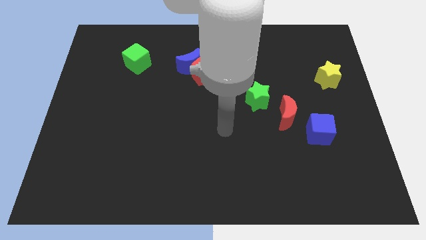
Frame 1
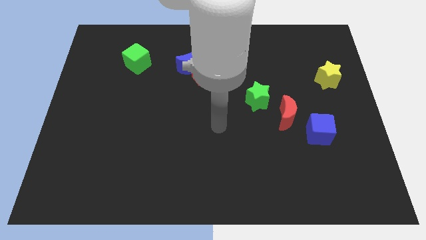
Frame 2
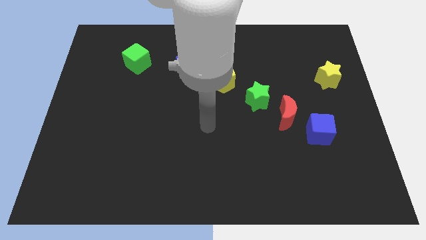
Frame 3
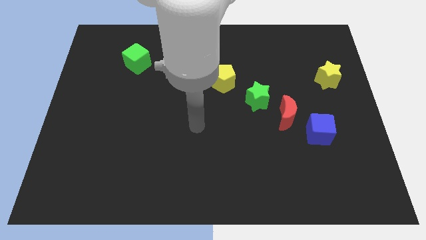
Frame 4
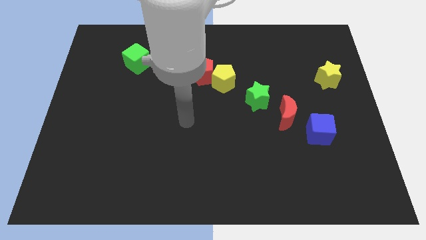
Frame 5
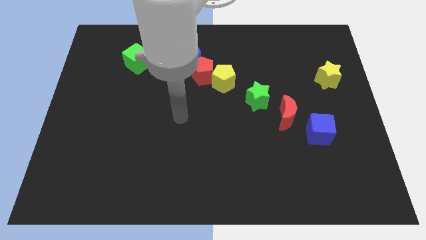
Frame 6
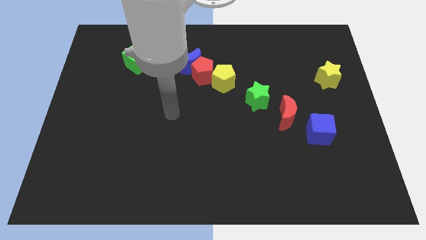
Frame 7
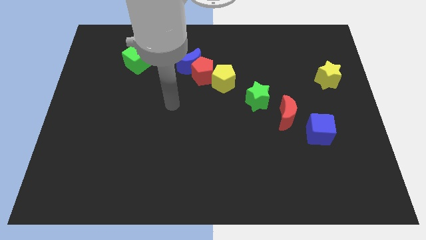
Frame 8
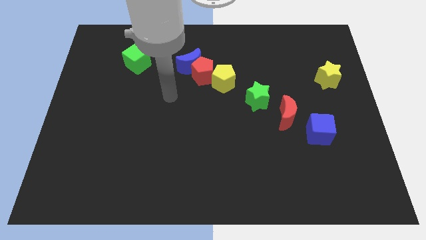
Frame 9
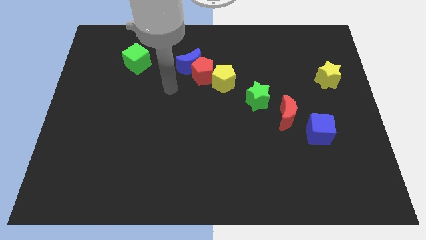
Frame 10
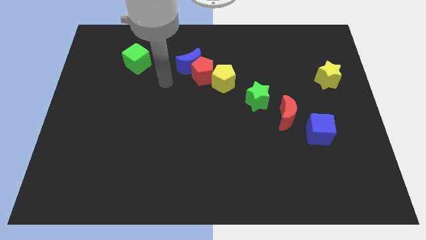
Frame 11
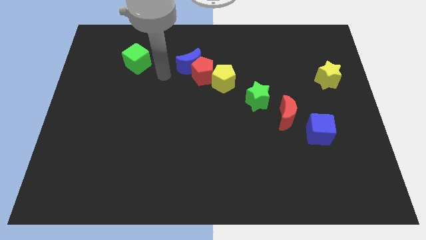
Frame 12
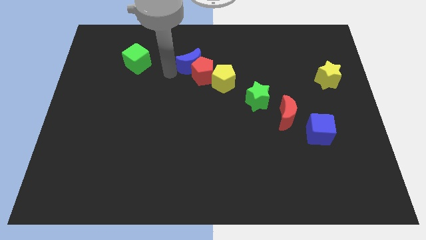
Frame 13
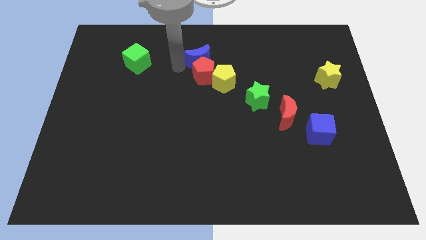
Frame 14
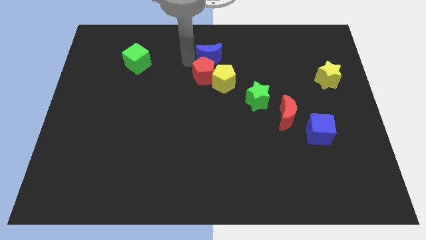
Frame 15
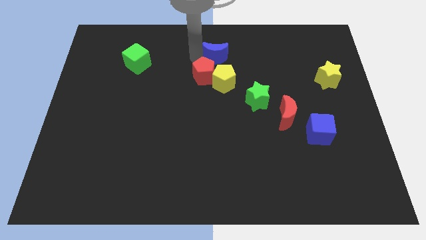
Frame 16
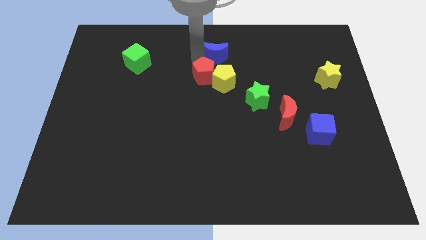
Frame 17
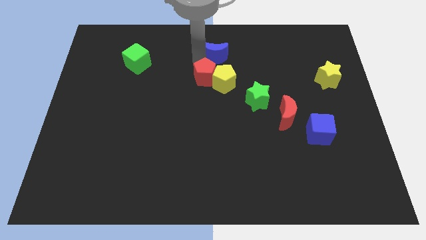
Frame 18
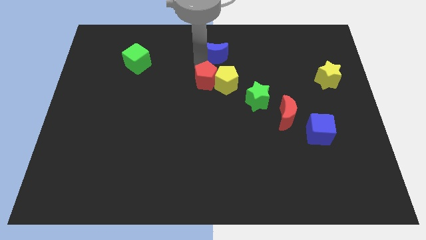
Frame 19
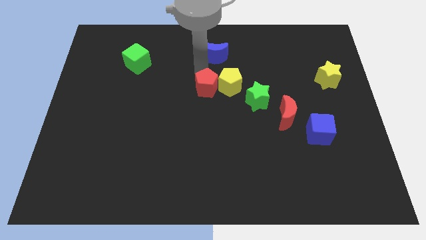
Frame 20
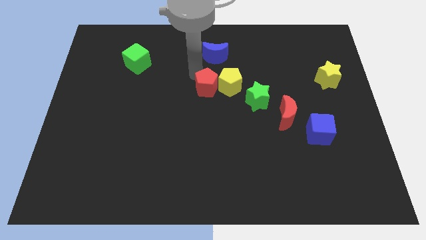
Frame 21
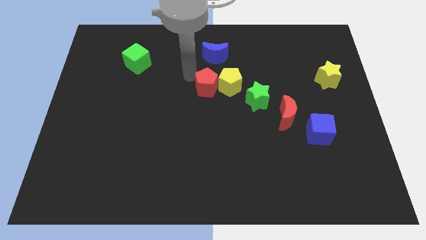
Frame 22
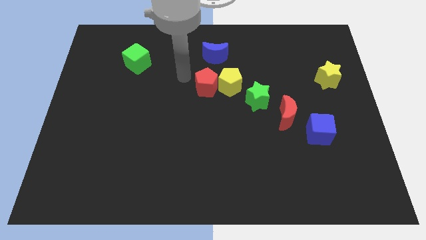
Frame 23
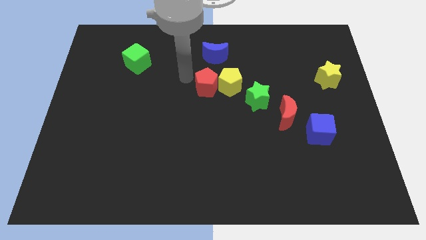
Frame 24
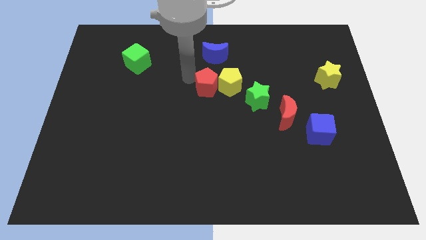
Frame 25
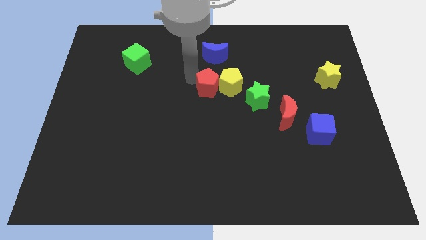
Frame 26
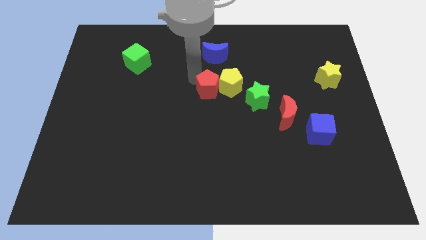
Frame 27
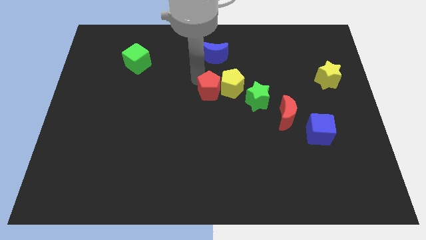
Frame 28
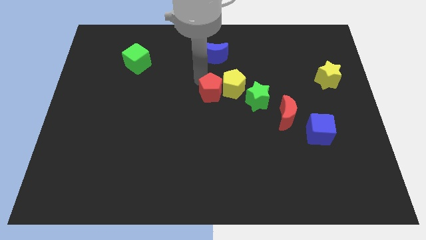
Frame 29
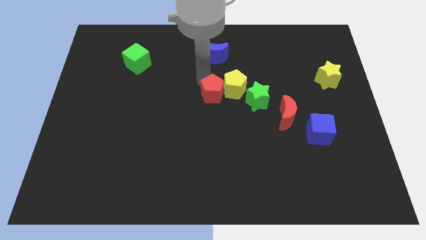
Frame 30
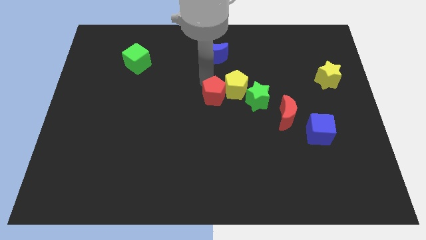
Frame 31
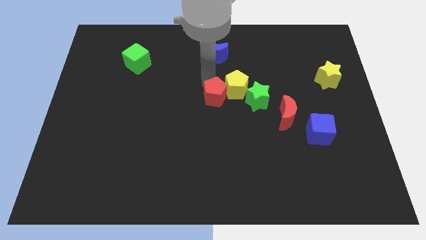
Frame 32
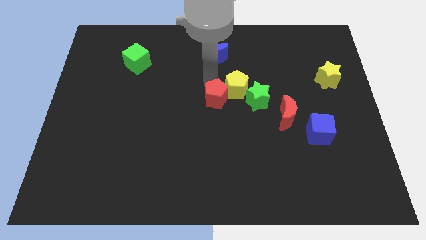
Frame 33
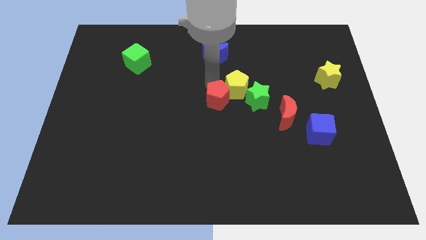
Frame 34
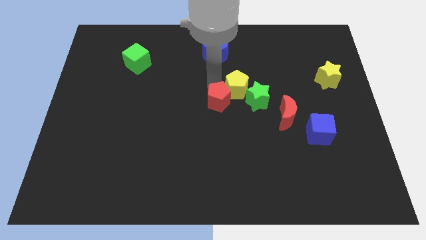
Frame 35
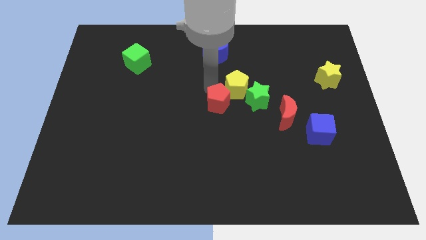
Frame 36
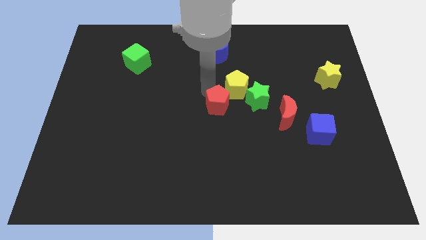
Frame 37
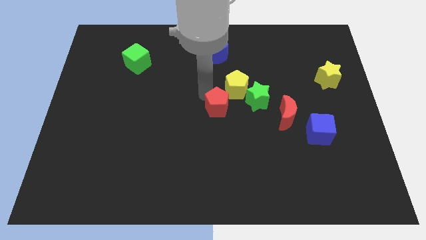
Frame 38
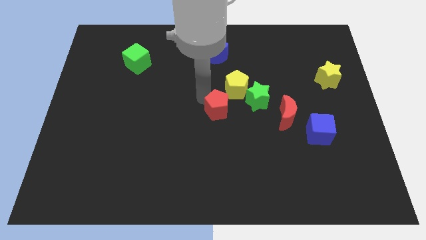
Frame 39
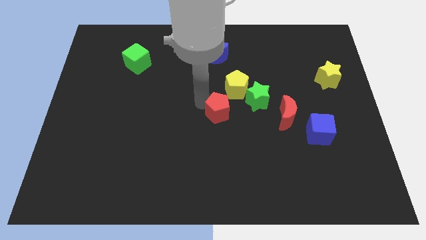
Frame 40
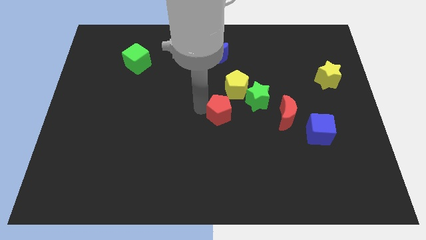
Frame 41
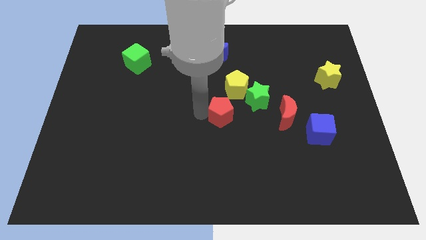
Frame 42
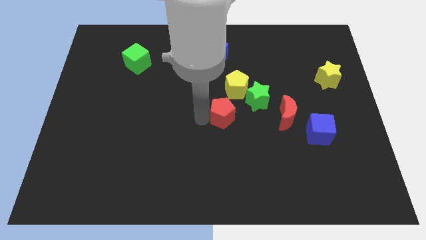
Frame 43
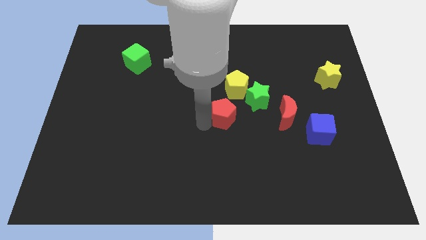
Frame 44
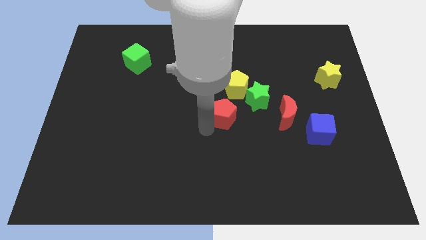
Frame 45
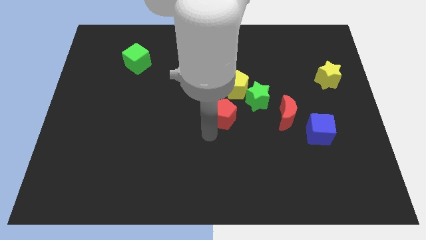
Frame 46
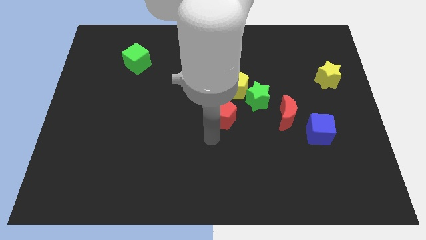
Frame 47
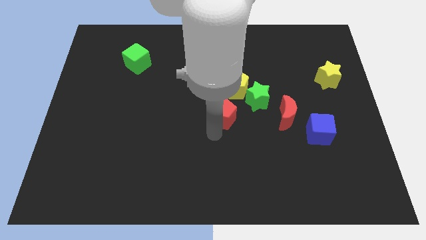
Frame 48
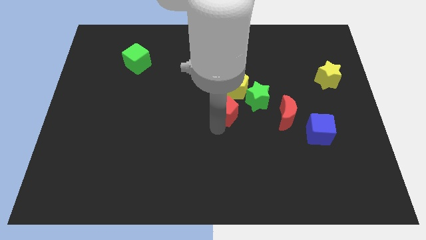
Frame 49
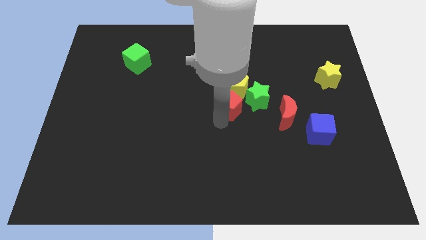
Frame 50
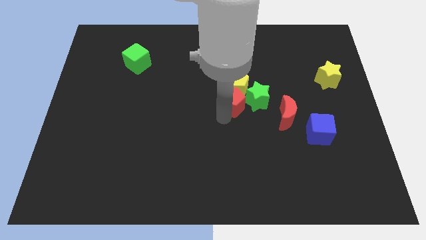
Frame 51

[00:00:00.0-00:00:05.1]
put the red pentagon towards the green star

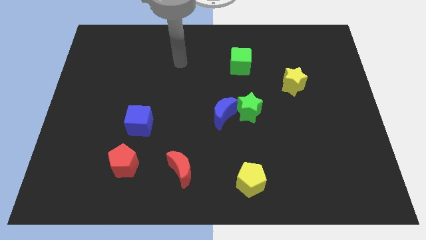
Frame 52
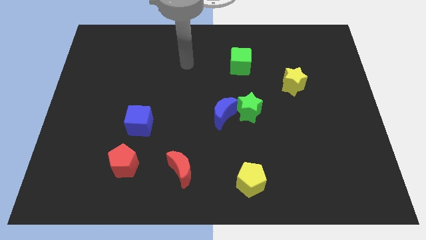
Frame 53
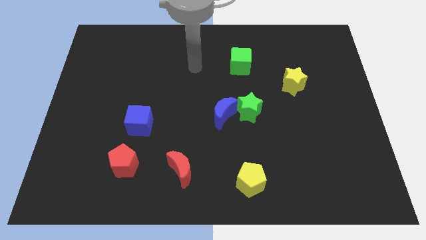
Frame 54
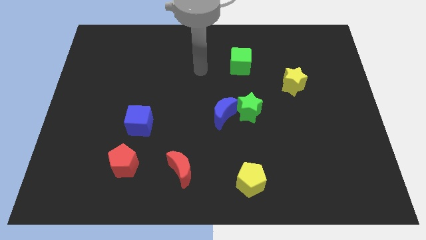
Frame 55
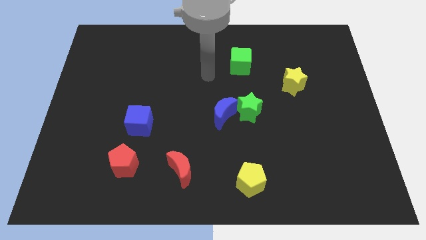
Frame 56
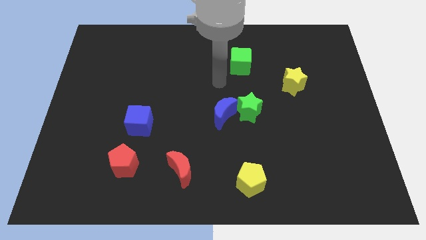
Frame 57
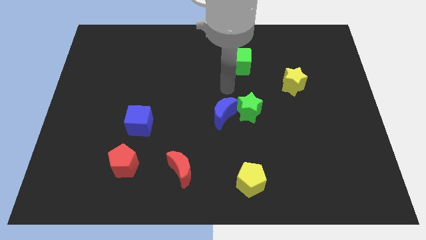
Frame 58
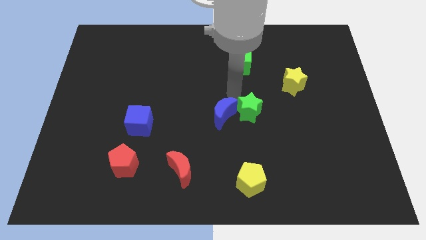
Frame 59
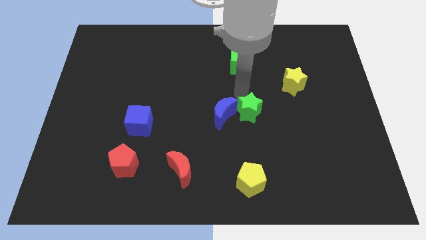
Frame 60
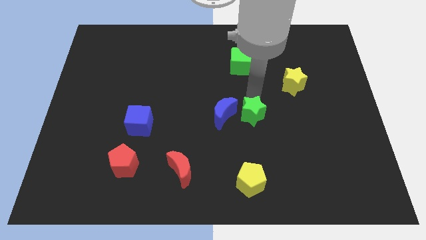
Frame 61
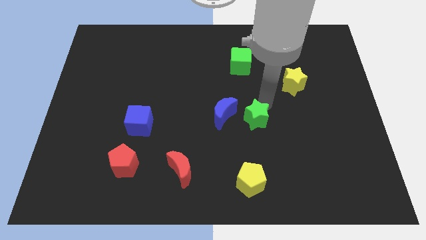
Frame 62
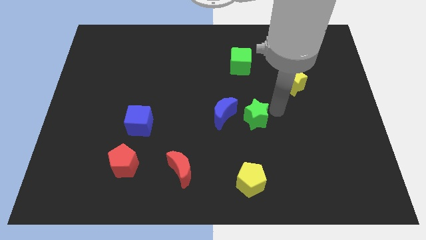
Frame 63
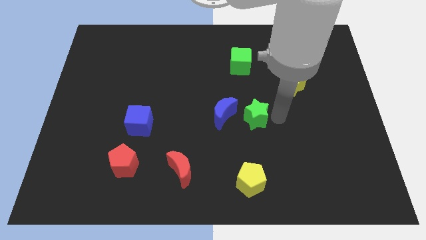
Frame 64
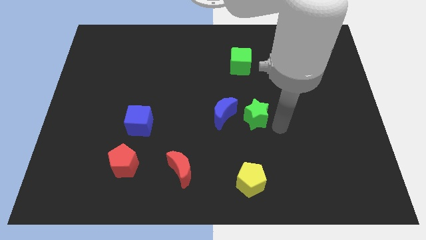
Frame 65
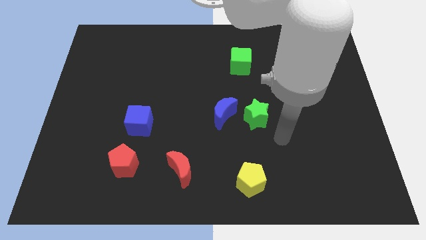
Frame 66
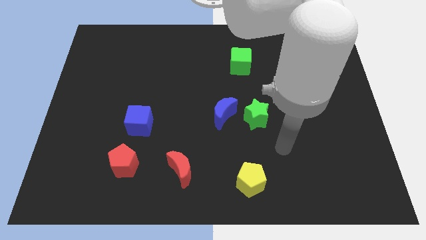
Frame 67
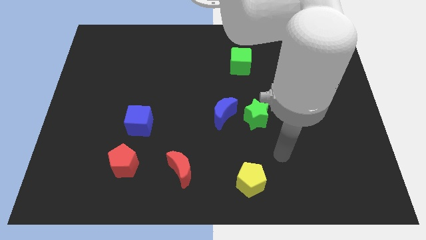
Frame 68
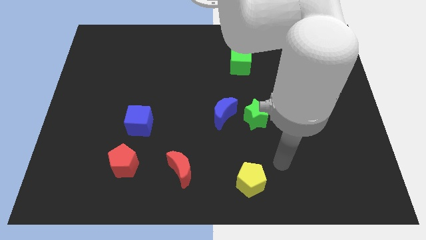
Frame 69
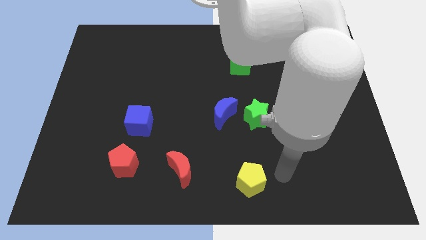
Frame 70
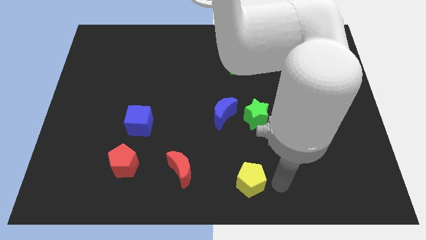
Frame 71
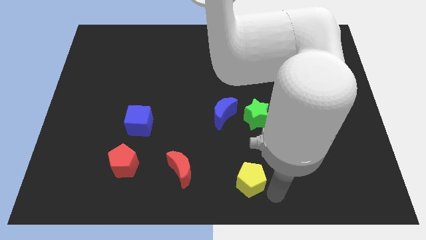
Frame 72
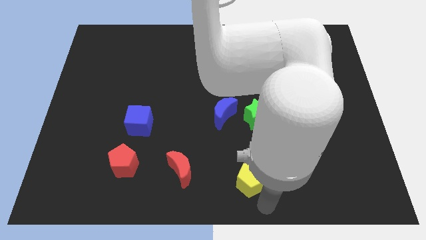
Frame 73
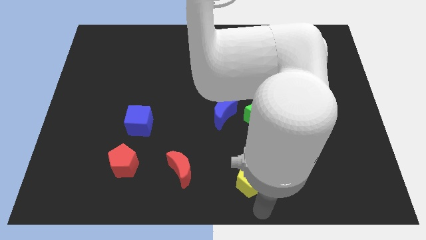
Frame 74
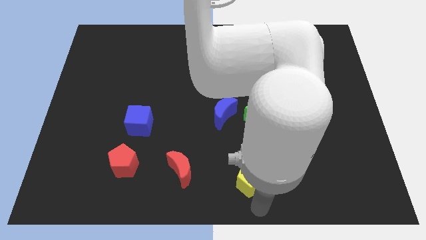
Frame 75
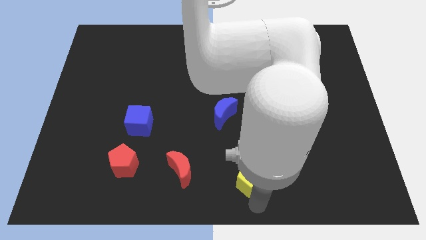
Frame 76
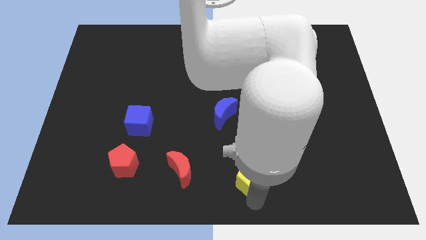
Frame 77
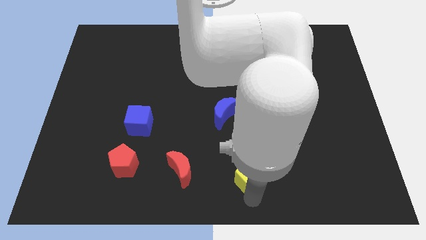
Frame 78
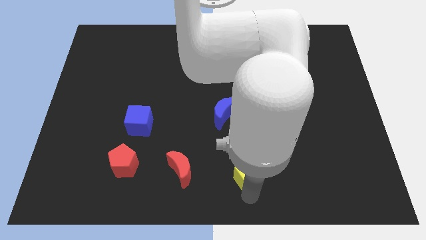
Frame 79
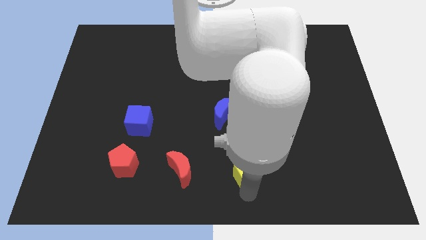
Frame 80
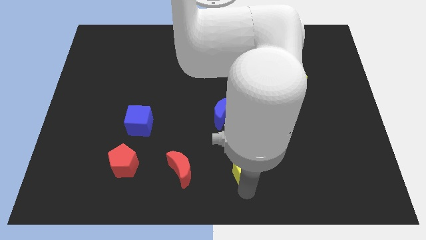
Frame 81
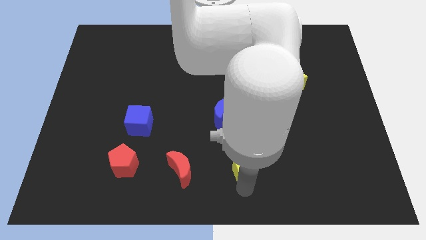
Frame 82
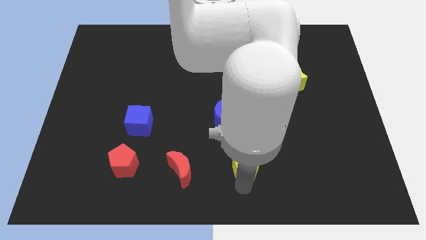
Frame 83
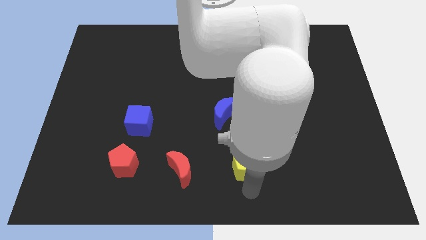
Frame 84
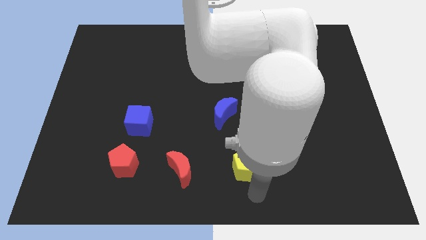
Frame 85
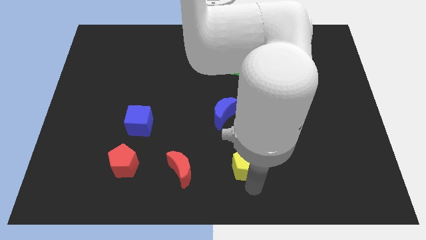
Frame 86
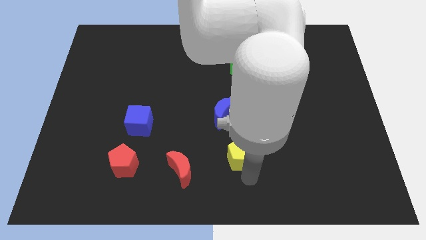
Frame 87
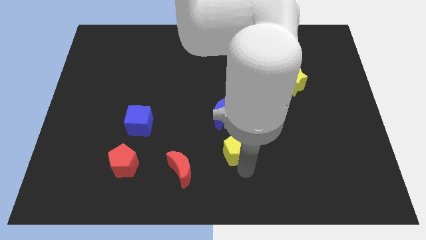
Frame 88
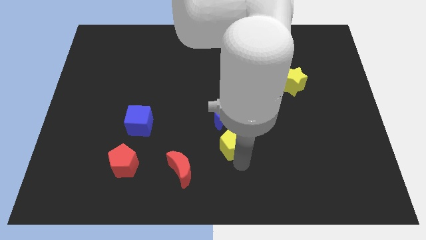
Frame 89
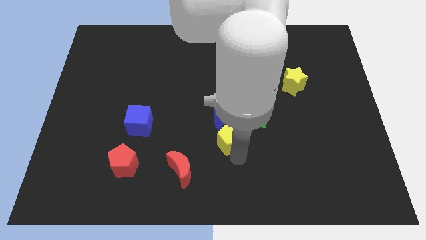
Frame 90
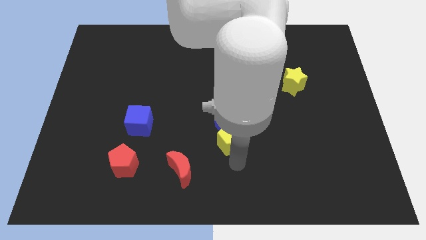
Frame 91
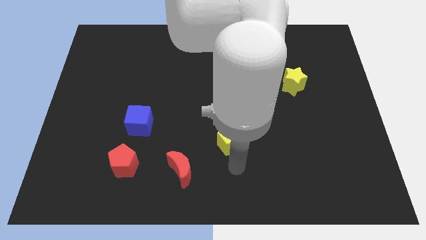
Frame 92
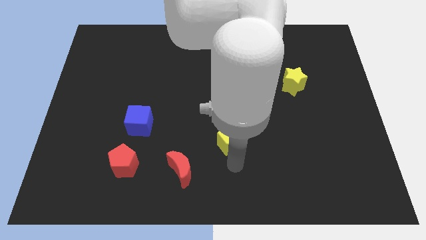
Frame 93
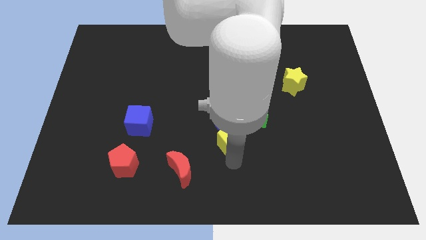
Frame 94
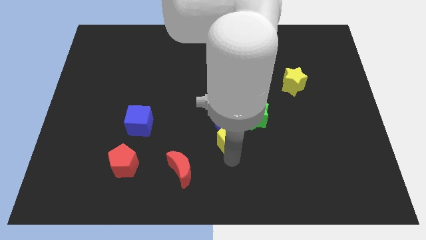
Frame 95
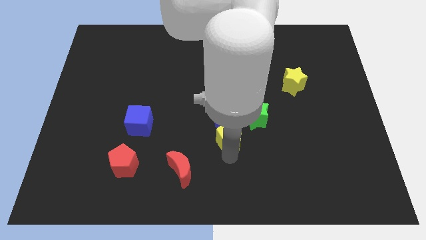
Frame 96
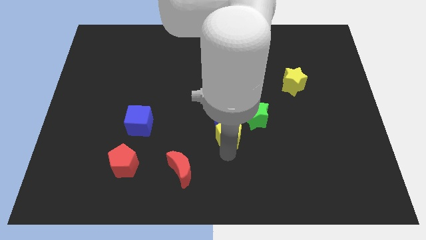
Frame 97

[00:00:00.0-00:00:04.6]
move the yellow pentagon to the blue moon
